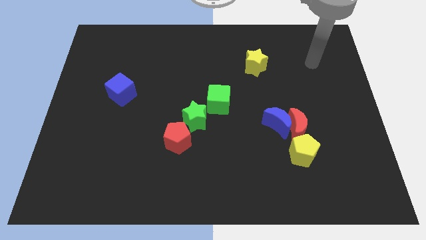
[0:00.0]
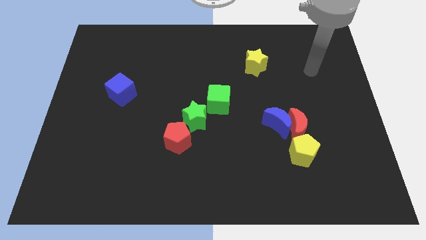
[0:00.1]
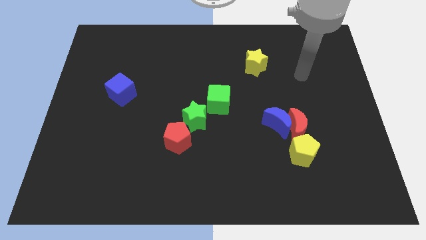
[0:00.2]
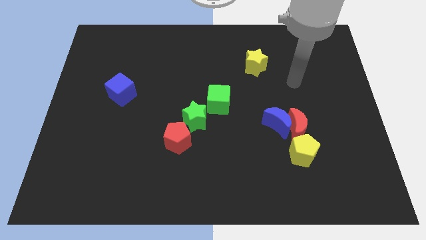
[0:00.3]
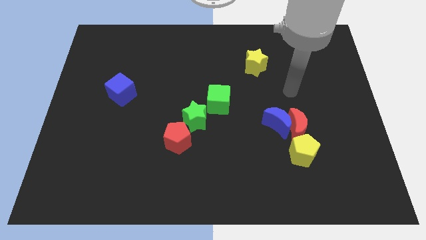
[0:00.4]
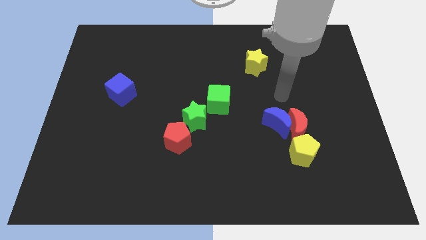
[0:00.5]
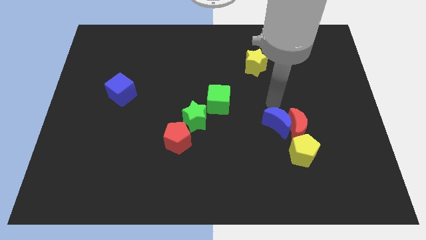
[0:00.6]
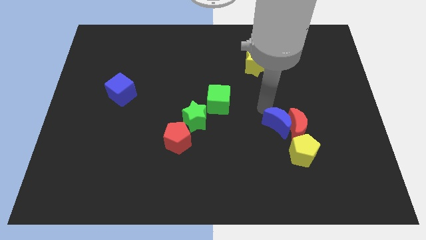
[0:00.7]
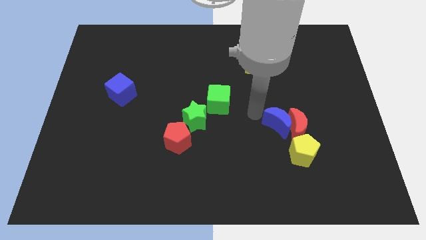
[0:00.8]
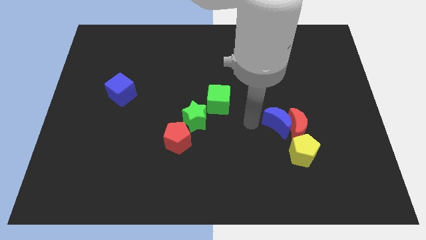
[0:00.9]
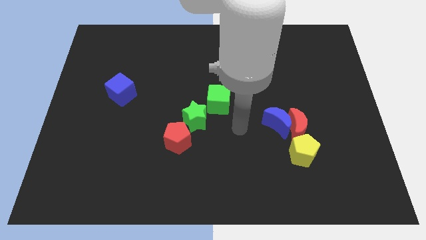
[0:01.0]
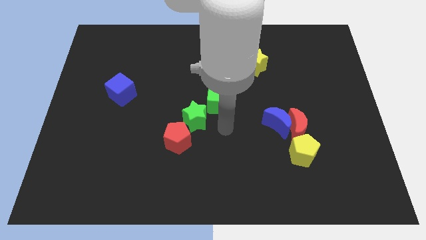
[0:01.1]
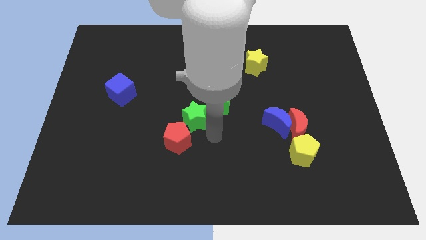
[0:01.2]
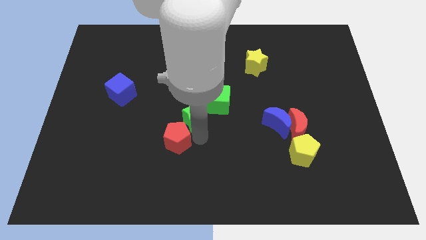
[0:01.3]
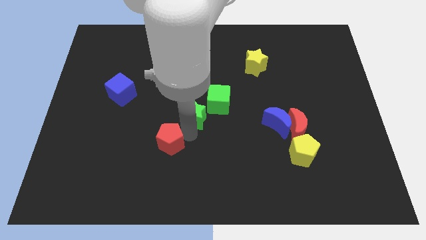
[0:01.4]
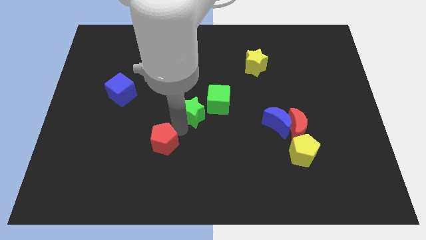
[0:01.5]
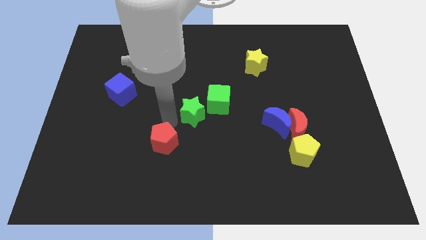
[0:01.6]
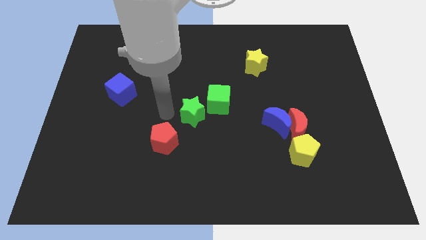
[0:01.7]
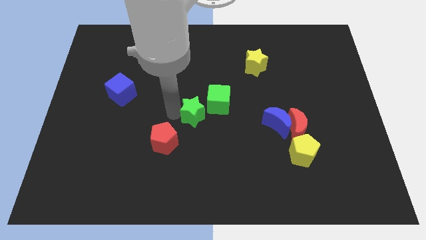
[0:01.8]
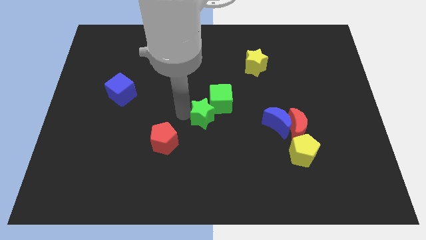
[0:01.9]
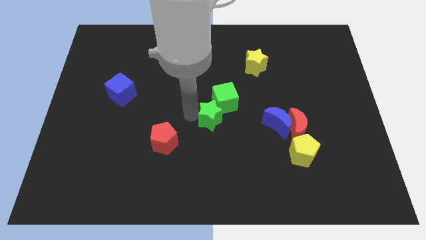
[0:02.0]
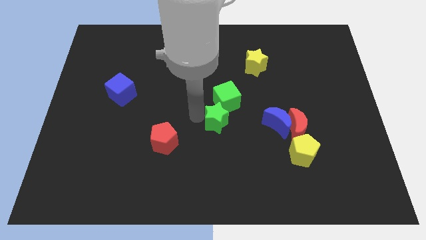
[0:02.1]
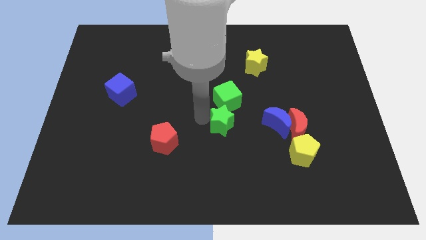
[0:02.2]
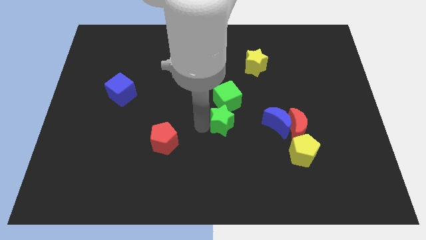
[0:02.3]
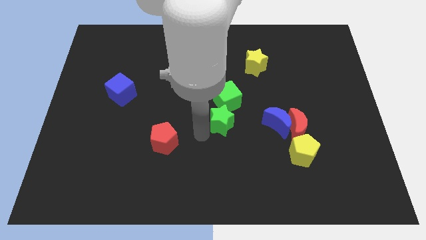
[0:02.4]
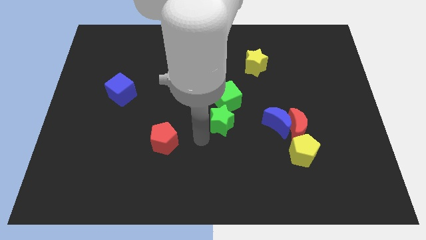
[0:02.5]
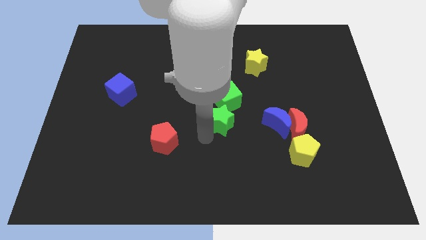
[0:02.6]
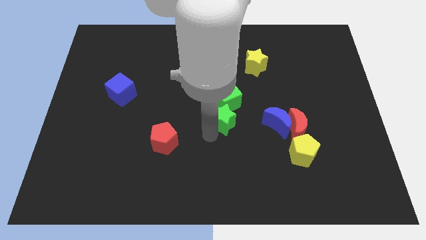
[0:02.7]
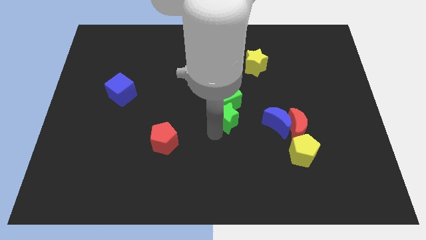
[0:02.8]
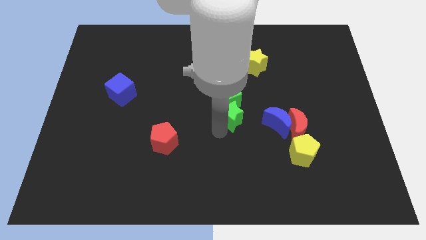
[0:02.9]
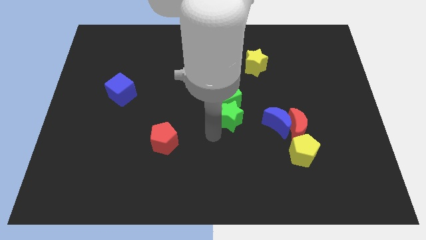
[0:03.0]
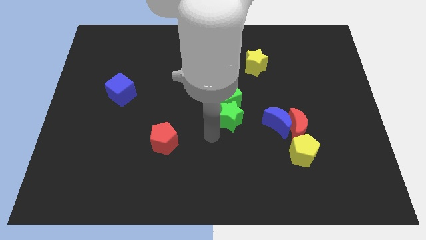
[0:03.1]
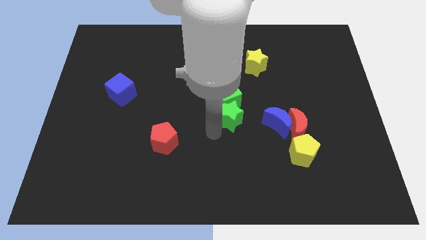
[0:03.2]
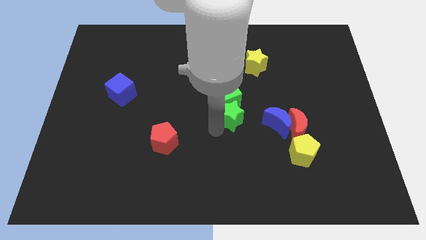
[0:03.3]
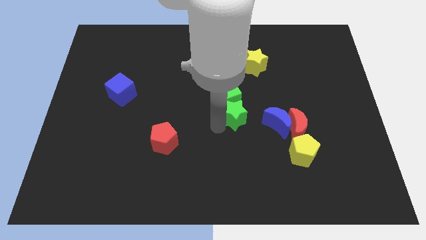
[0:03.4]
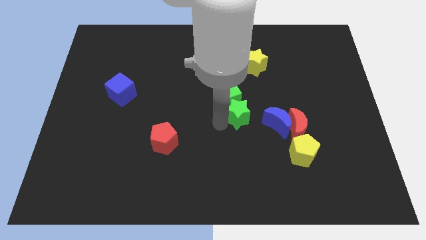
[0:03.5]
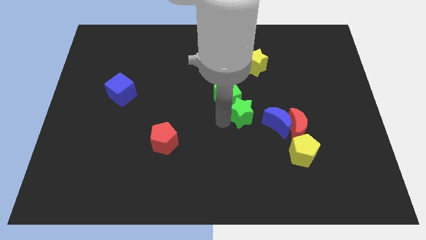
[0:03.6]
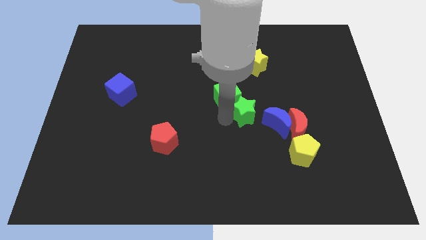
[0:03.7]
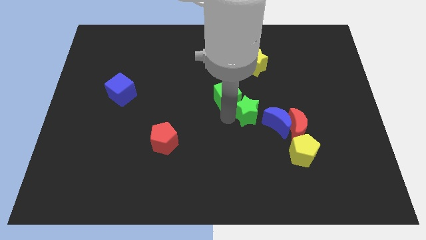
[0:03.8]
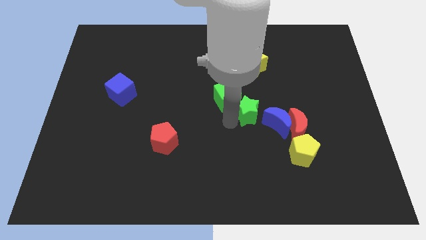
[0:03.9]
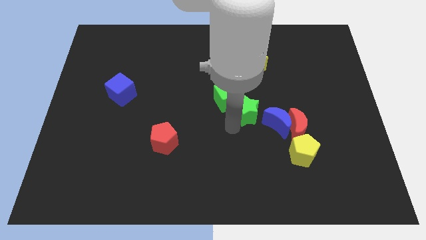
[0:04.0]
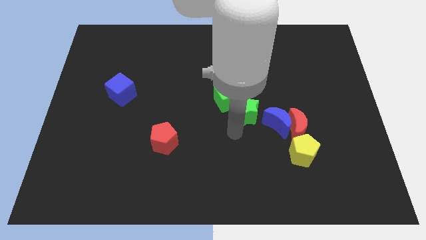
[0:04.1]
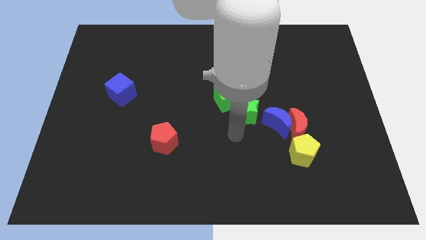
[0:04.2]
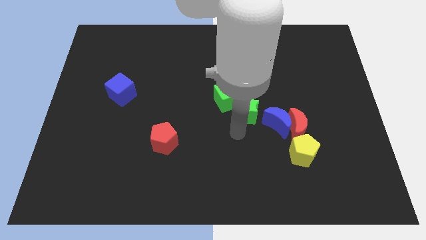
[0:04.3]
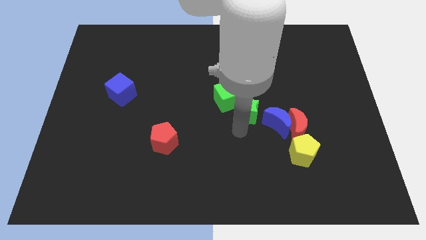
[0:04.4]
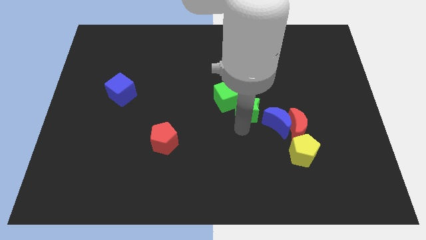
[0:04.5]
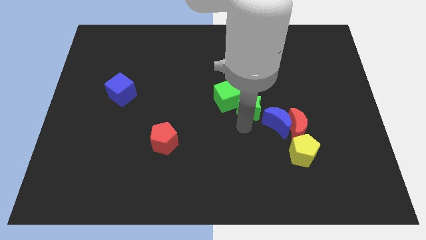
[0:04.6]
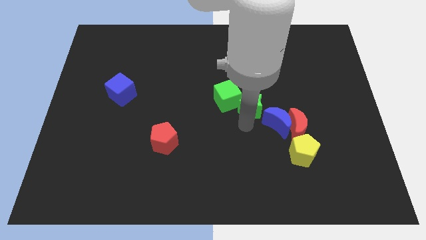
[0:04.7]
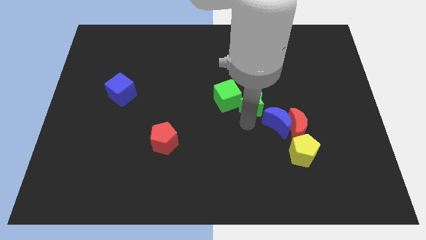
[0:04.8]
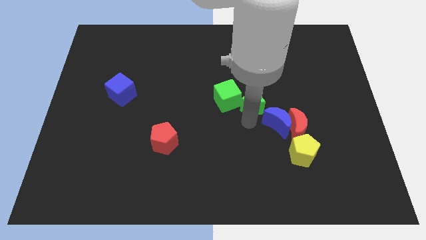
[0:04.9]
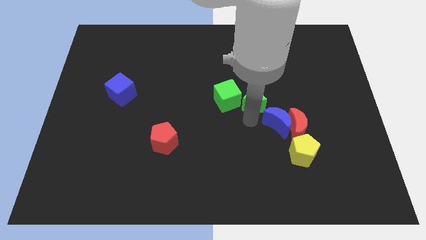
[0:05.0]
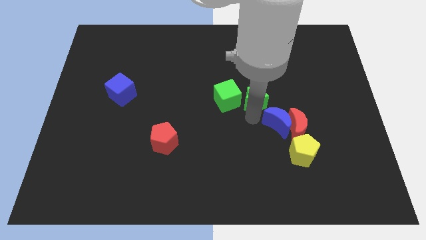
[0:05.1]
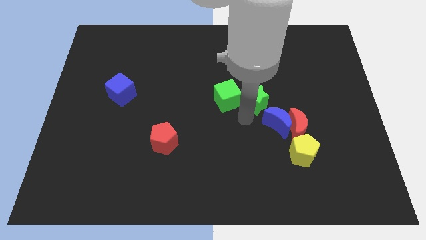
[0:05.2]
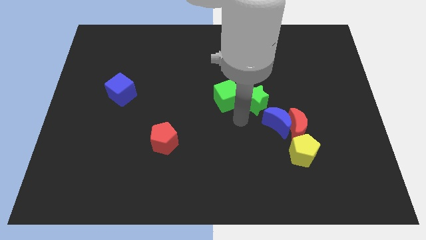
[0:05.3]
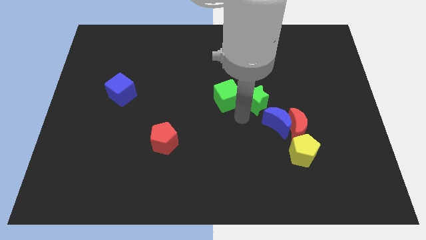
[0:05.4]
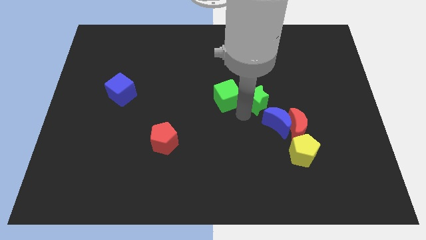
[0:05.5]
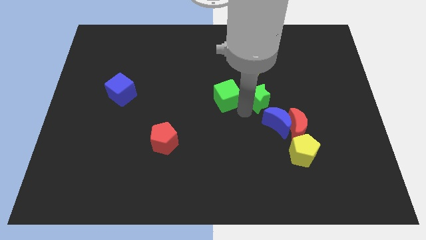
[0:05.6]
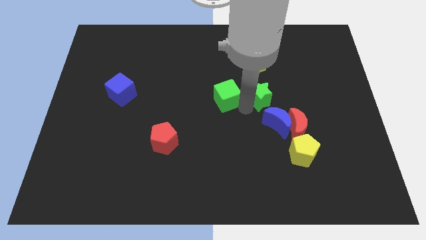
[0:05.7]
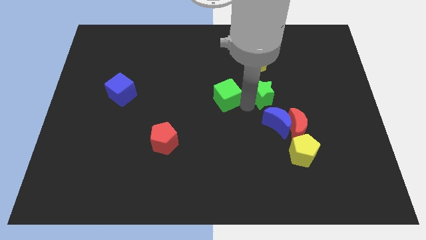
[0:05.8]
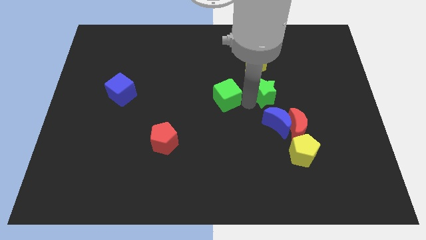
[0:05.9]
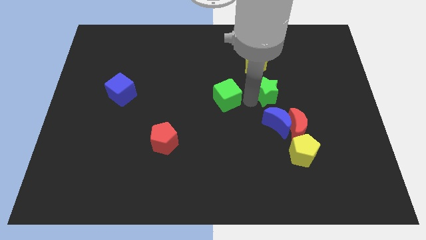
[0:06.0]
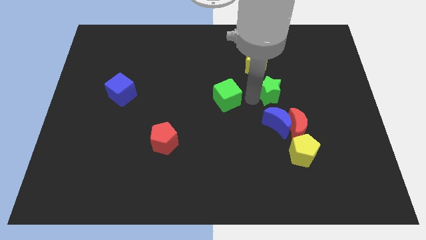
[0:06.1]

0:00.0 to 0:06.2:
put the green star to the bottom right side of the yellow star
